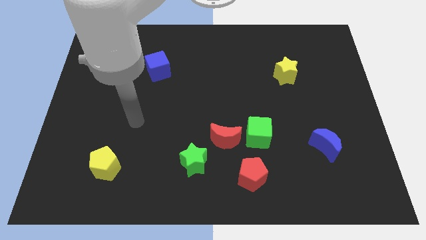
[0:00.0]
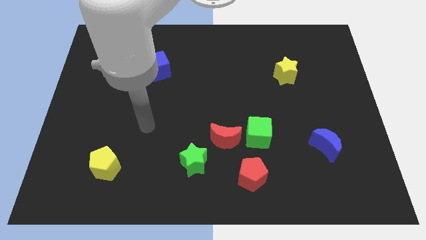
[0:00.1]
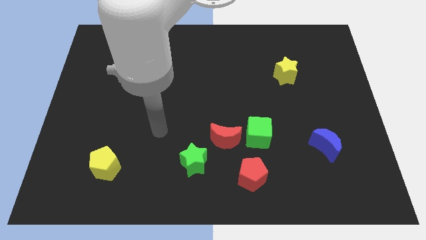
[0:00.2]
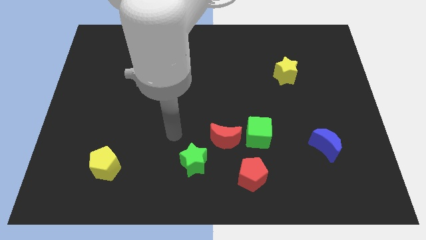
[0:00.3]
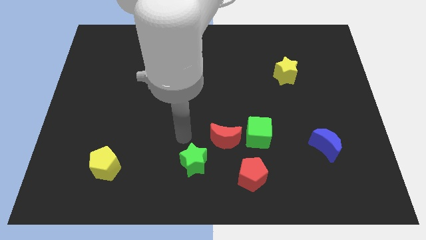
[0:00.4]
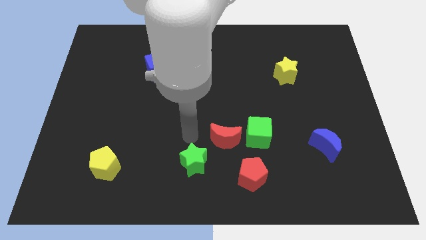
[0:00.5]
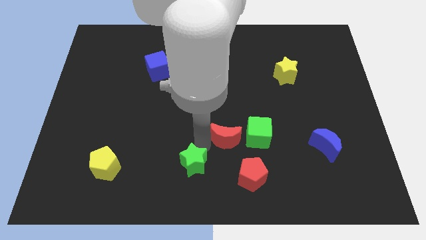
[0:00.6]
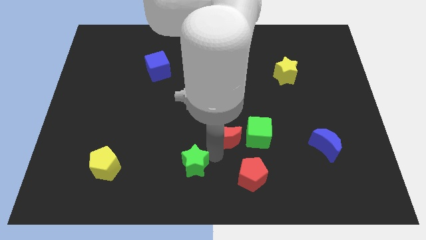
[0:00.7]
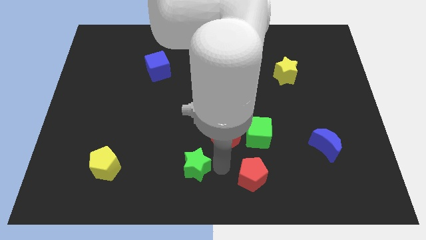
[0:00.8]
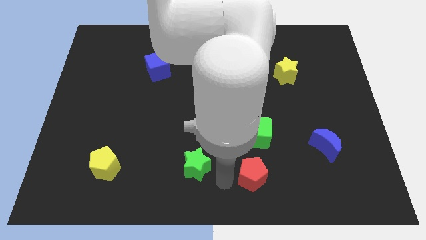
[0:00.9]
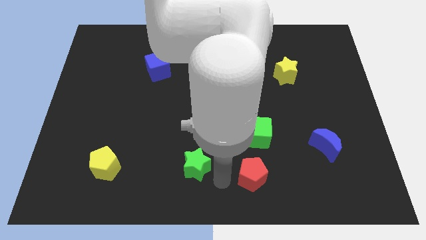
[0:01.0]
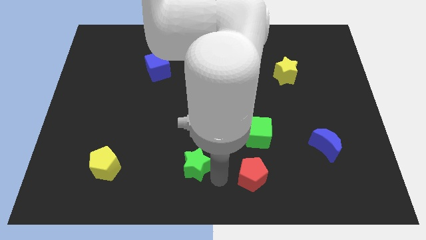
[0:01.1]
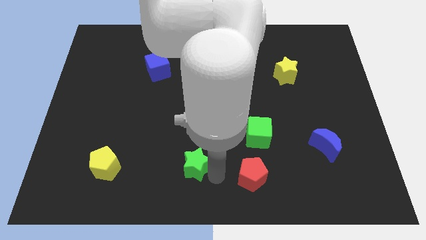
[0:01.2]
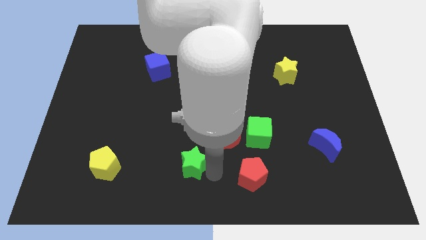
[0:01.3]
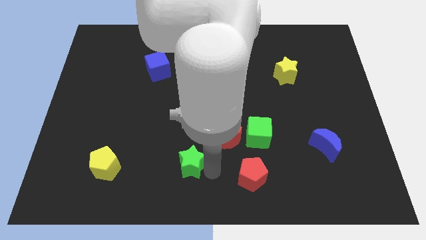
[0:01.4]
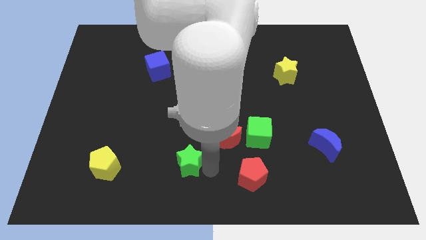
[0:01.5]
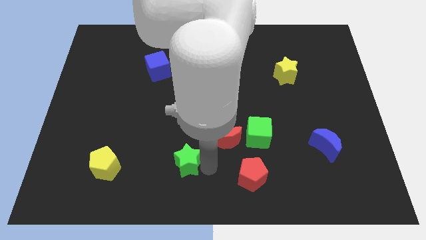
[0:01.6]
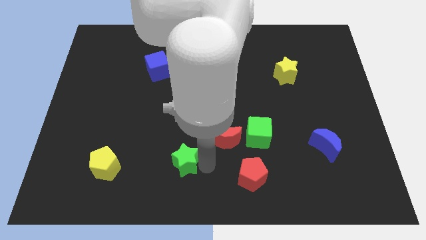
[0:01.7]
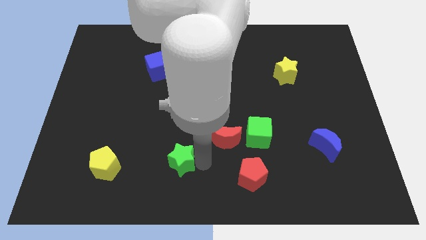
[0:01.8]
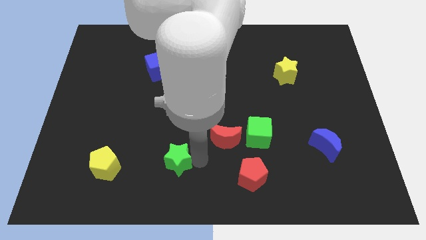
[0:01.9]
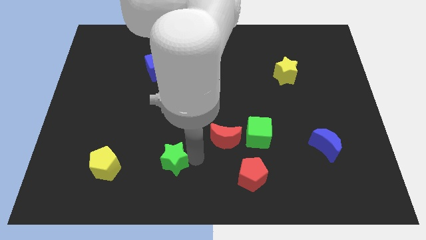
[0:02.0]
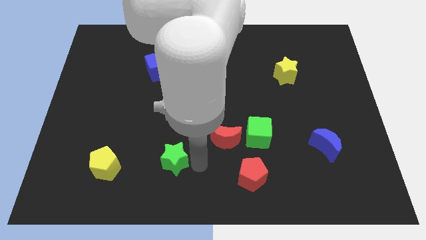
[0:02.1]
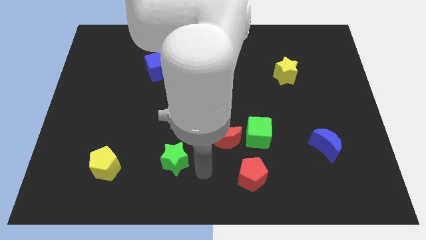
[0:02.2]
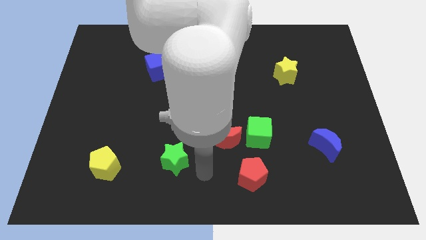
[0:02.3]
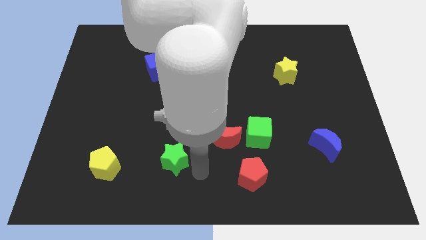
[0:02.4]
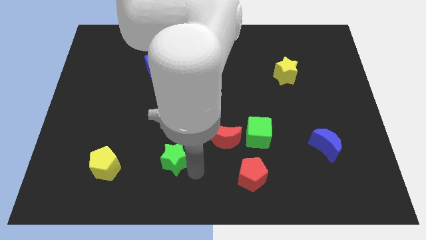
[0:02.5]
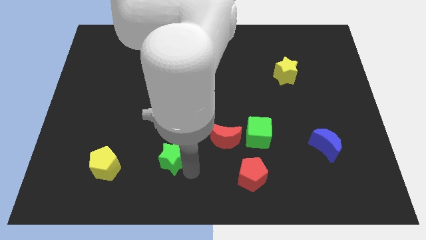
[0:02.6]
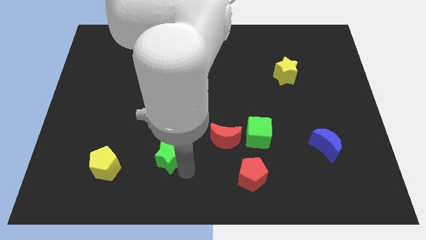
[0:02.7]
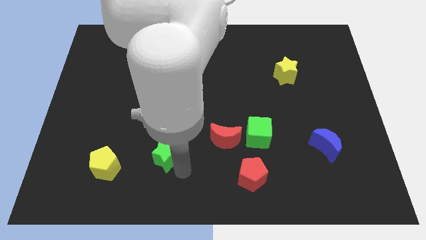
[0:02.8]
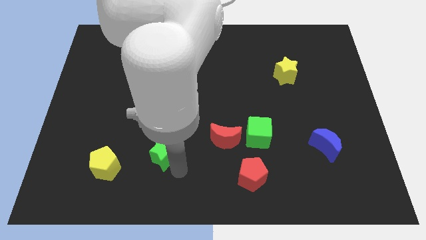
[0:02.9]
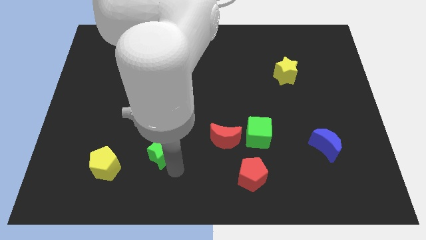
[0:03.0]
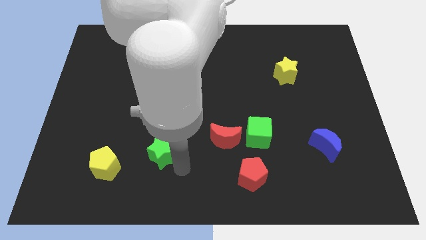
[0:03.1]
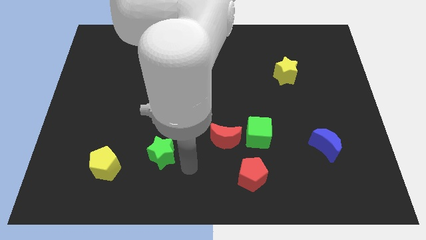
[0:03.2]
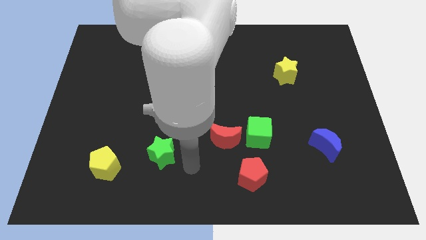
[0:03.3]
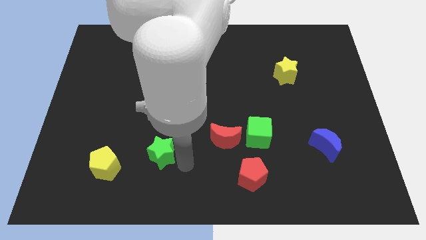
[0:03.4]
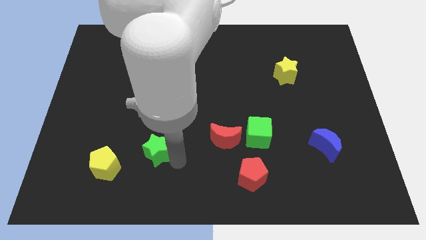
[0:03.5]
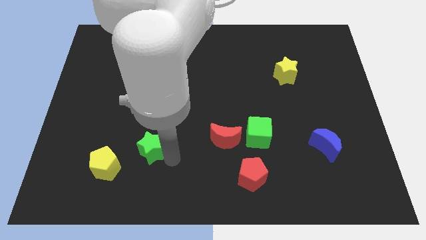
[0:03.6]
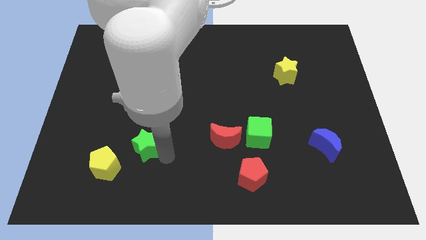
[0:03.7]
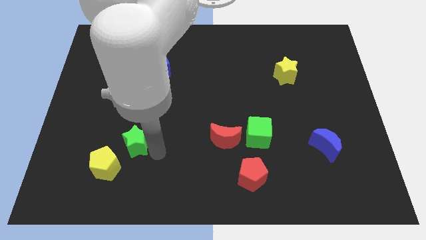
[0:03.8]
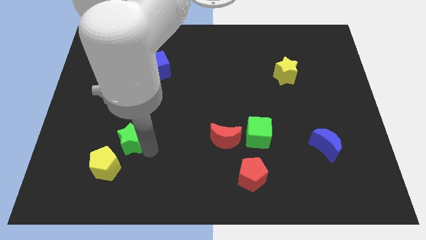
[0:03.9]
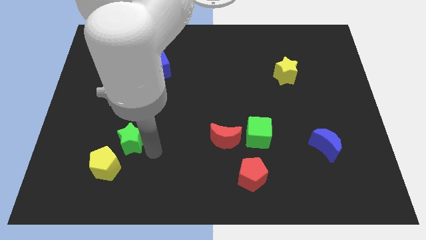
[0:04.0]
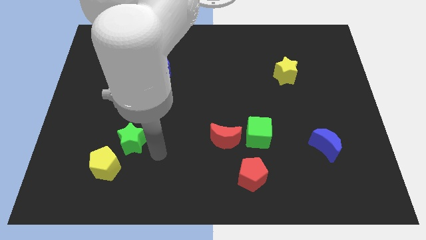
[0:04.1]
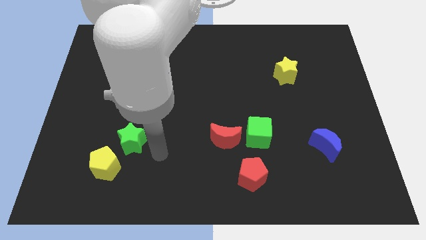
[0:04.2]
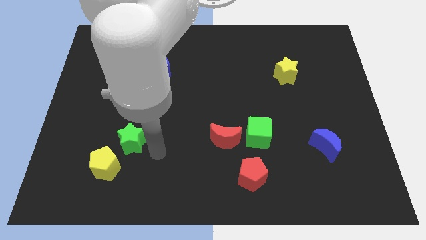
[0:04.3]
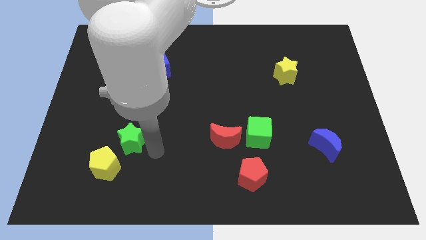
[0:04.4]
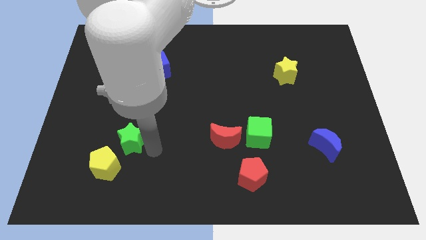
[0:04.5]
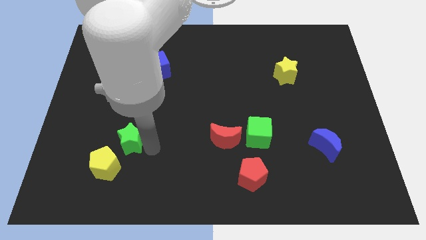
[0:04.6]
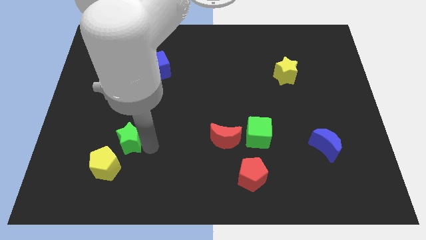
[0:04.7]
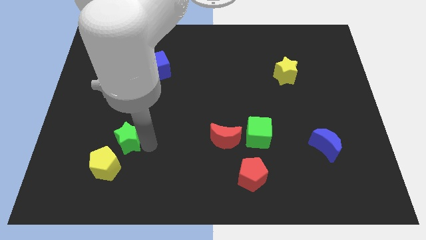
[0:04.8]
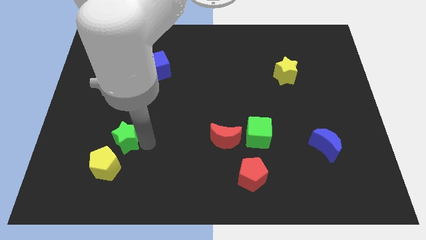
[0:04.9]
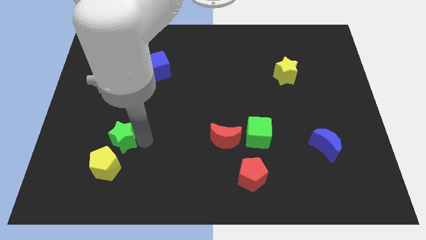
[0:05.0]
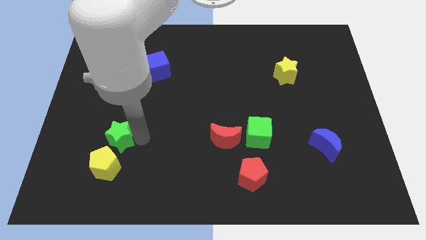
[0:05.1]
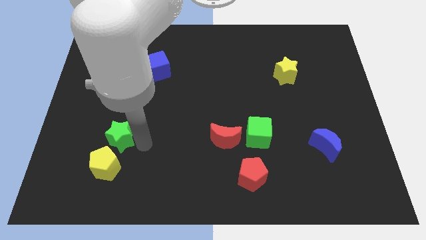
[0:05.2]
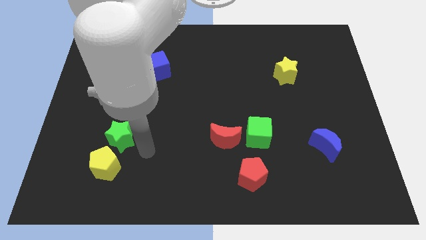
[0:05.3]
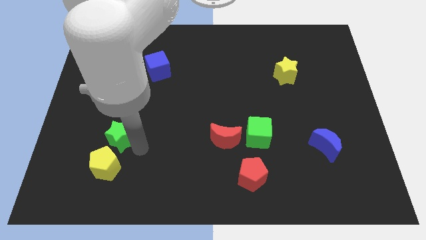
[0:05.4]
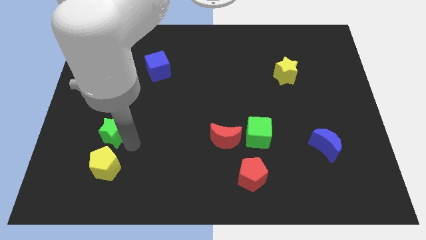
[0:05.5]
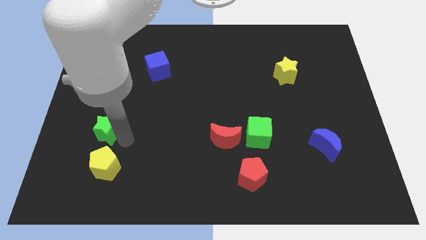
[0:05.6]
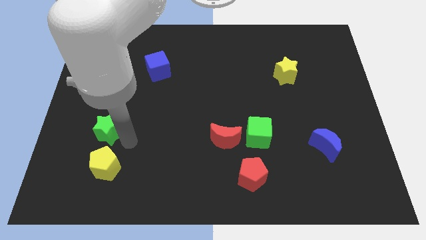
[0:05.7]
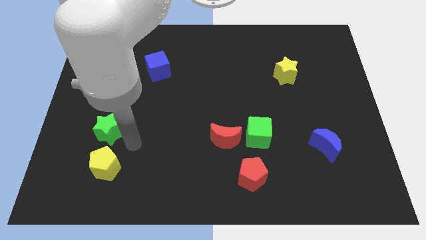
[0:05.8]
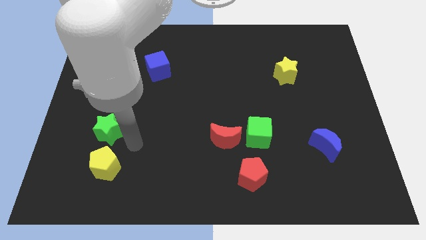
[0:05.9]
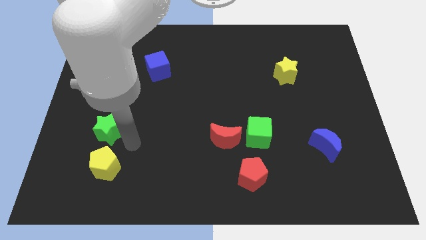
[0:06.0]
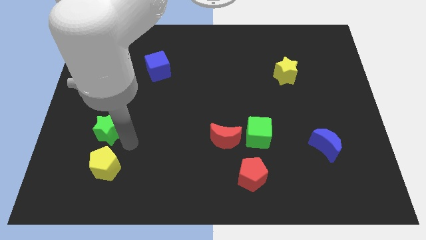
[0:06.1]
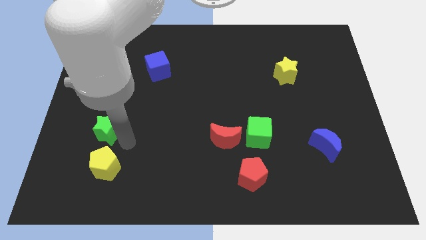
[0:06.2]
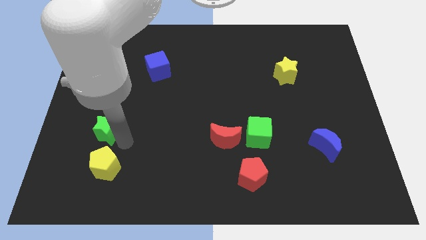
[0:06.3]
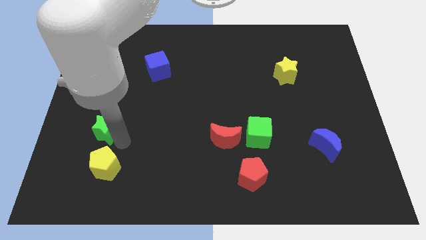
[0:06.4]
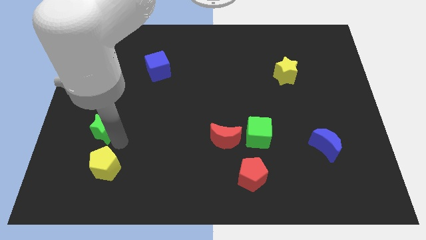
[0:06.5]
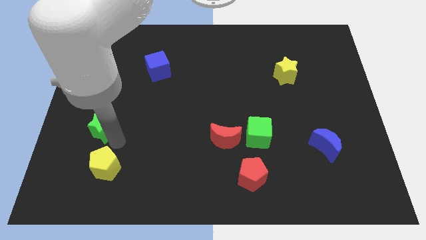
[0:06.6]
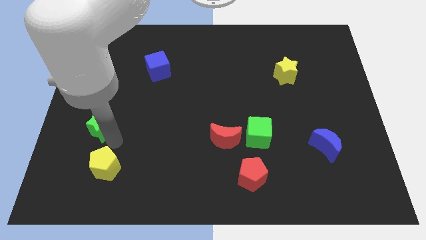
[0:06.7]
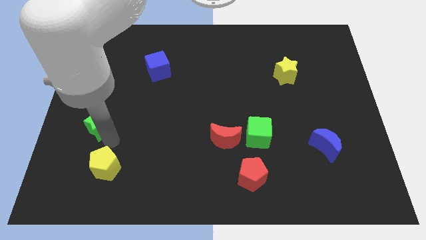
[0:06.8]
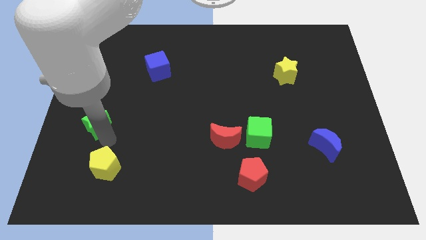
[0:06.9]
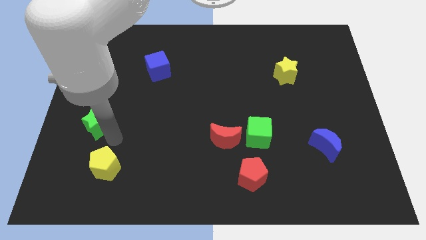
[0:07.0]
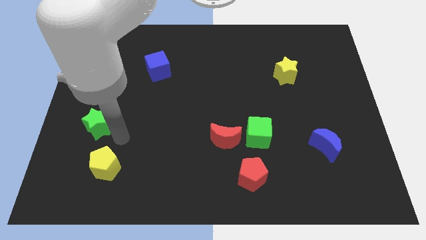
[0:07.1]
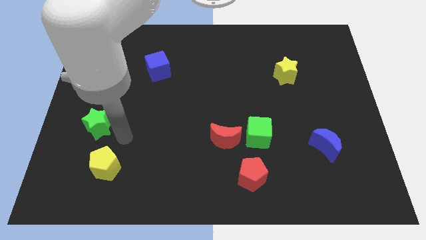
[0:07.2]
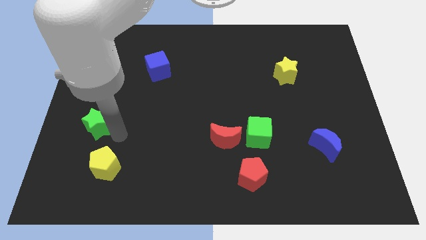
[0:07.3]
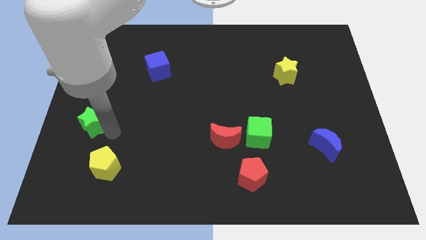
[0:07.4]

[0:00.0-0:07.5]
put the green star to the left side
